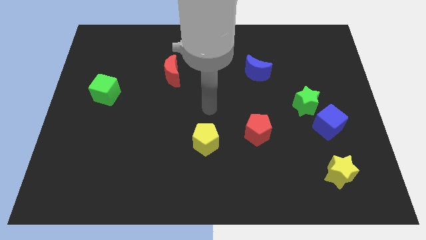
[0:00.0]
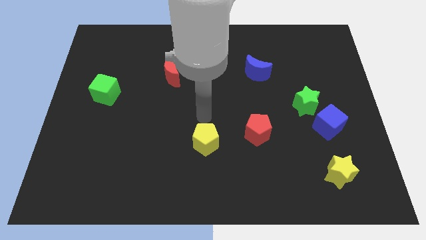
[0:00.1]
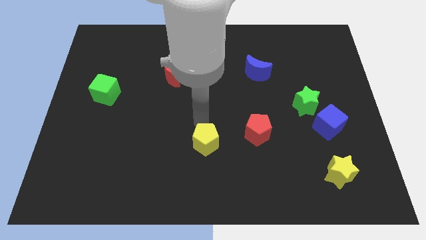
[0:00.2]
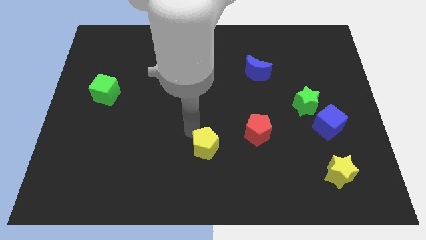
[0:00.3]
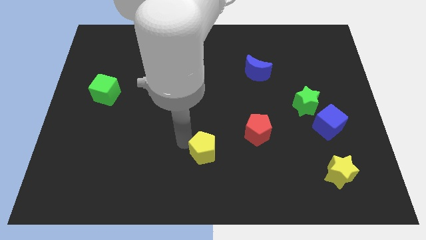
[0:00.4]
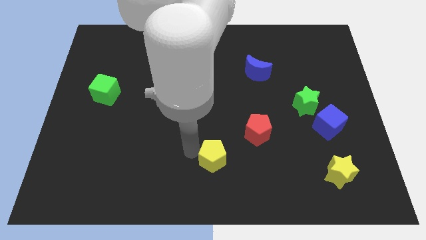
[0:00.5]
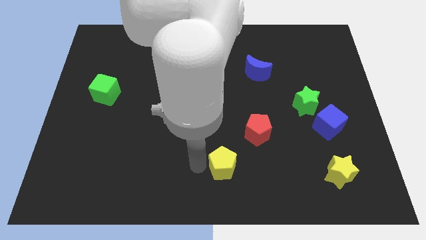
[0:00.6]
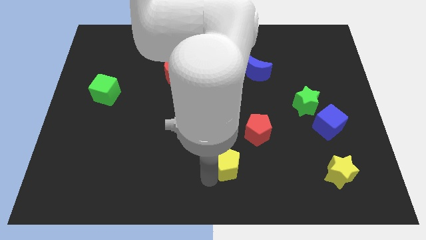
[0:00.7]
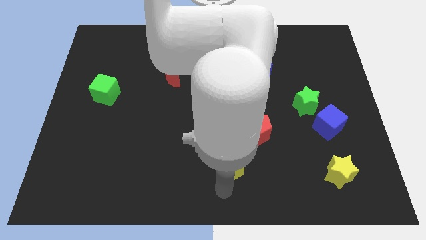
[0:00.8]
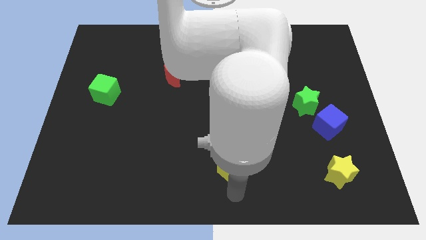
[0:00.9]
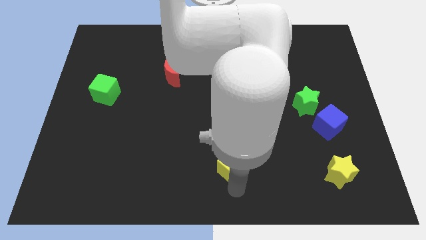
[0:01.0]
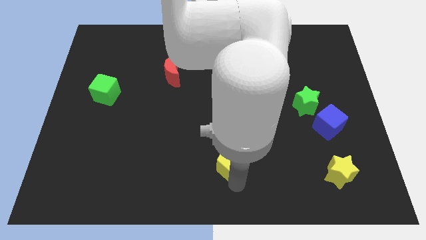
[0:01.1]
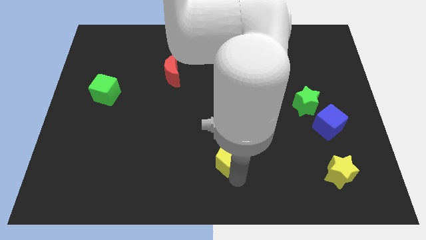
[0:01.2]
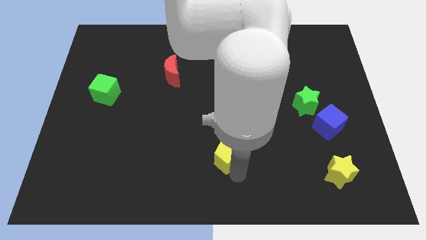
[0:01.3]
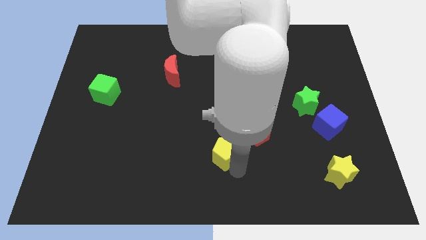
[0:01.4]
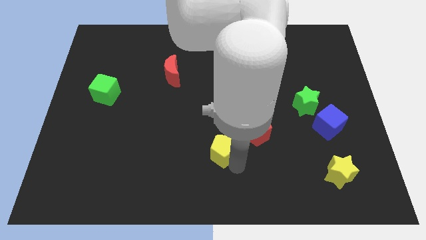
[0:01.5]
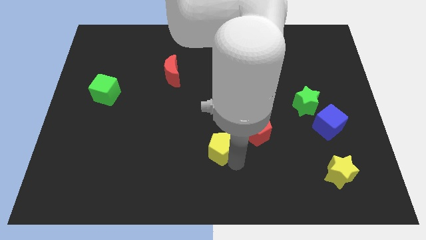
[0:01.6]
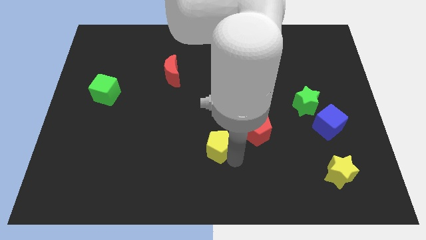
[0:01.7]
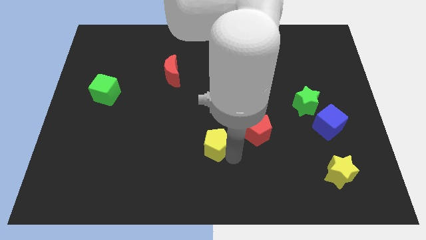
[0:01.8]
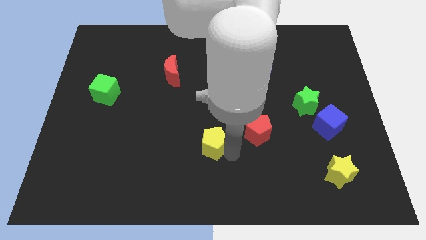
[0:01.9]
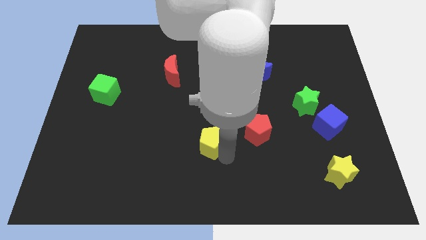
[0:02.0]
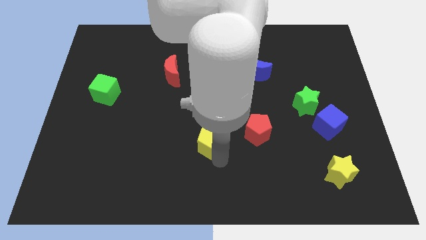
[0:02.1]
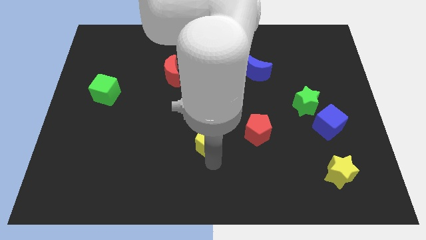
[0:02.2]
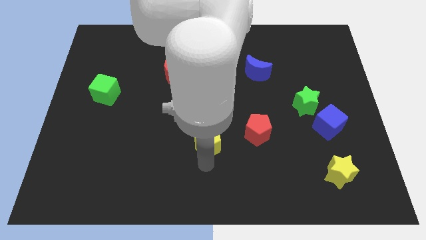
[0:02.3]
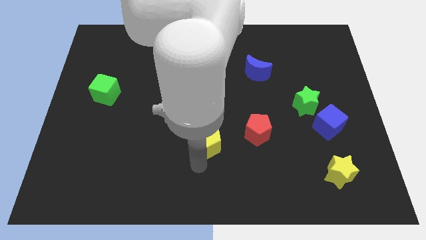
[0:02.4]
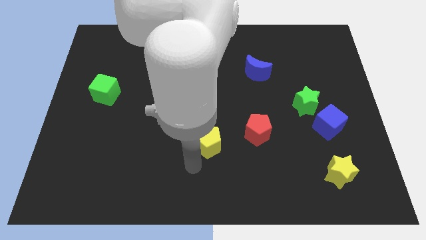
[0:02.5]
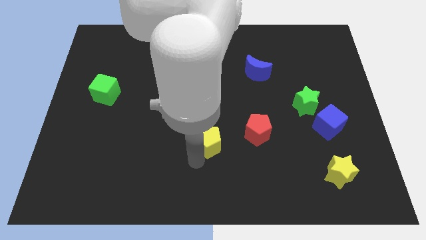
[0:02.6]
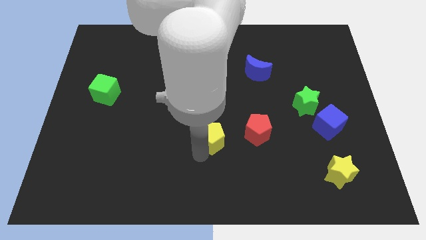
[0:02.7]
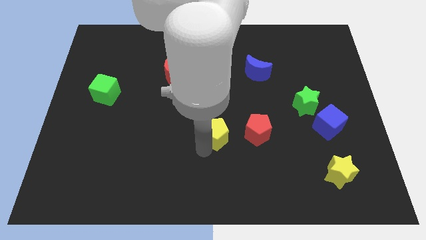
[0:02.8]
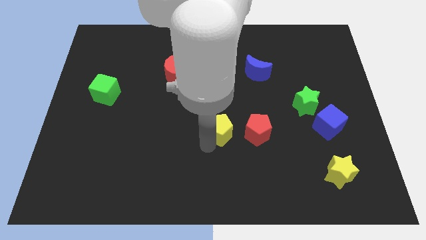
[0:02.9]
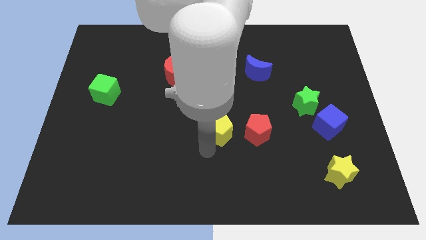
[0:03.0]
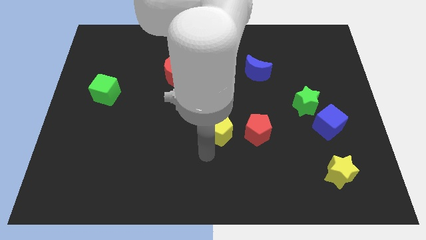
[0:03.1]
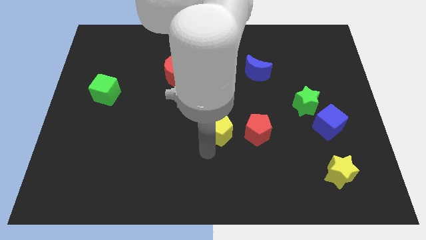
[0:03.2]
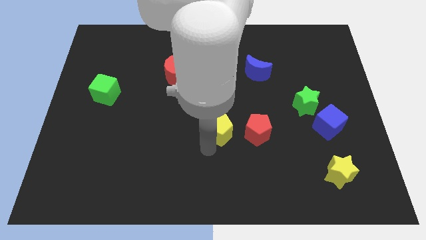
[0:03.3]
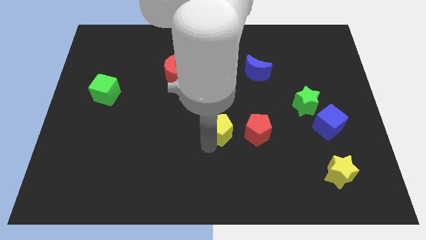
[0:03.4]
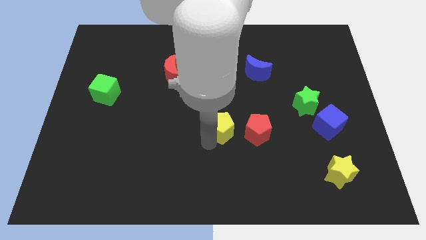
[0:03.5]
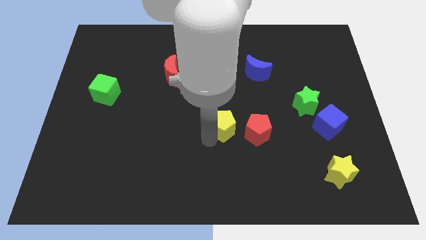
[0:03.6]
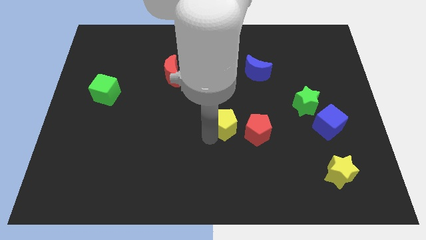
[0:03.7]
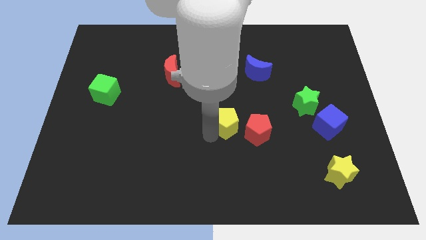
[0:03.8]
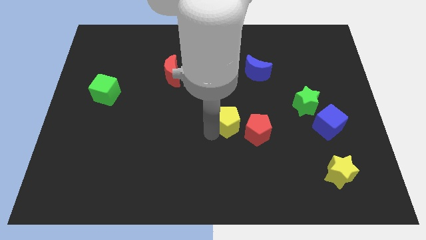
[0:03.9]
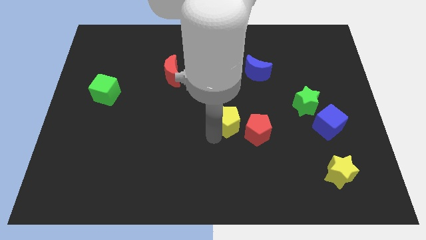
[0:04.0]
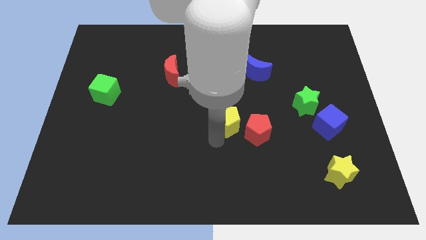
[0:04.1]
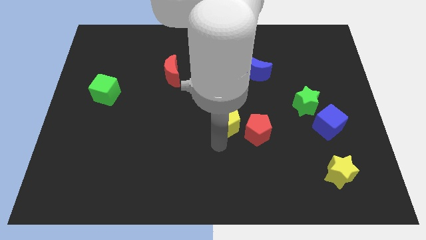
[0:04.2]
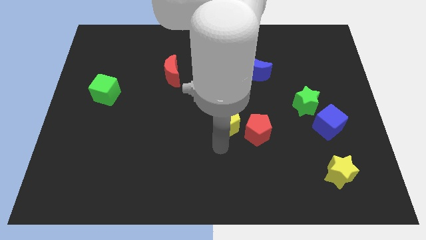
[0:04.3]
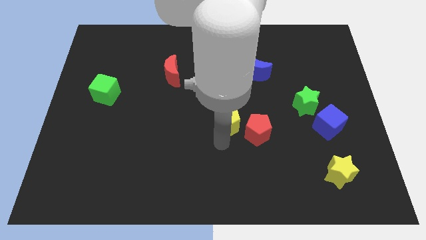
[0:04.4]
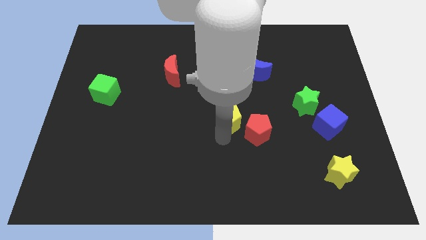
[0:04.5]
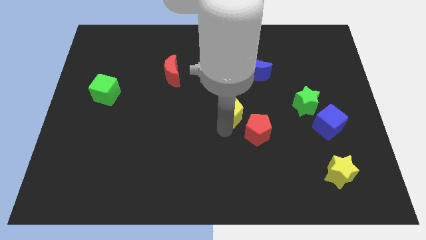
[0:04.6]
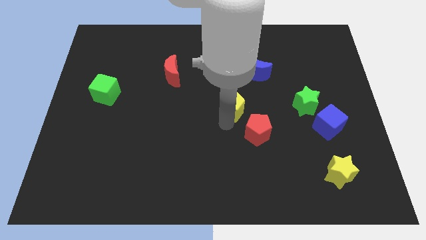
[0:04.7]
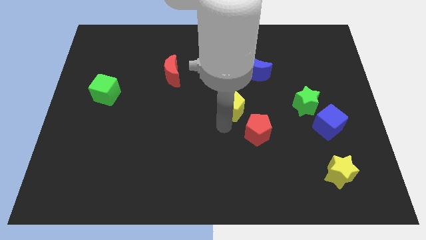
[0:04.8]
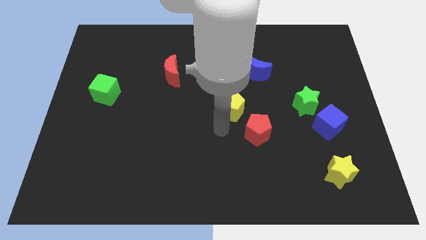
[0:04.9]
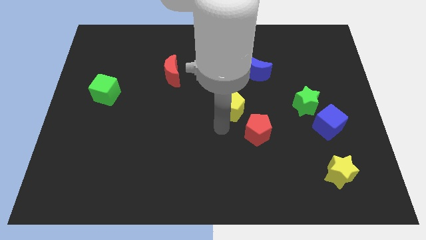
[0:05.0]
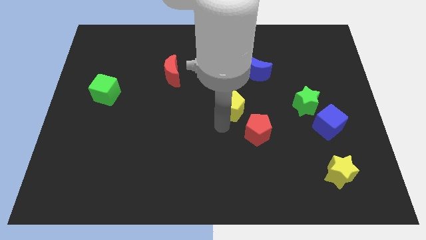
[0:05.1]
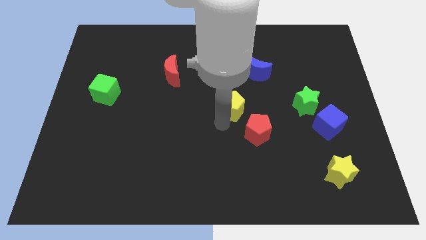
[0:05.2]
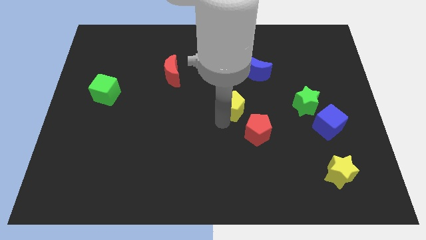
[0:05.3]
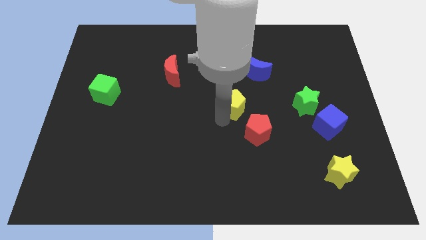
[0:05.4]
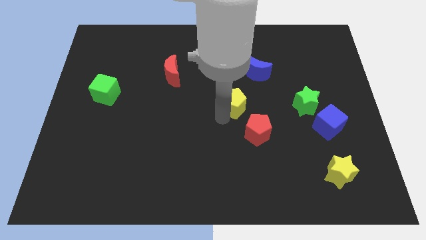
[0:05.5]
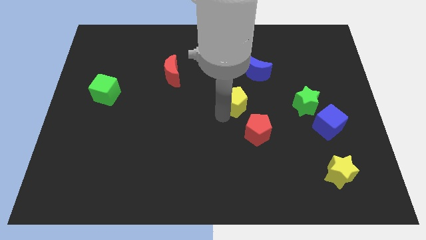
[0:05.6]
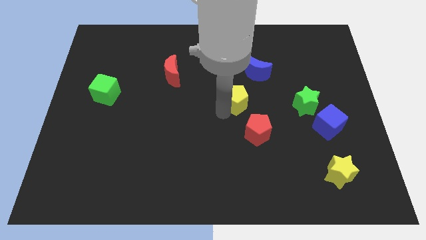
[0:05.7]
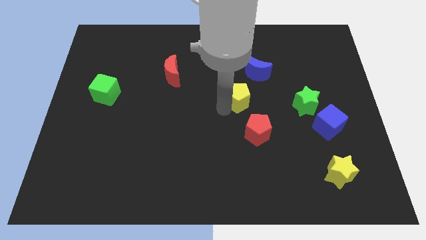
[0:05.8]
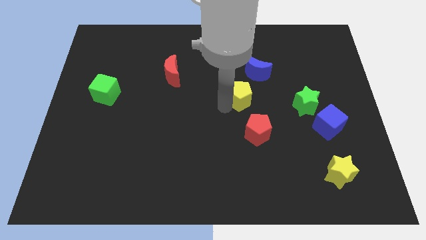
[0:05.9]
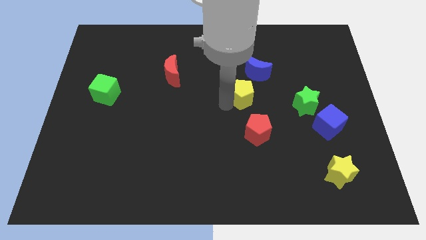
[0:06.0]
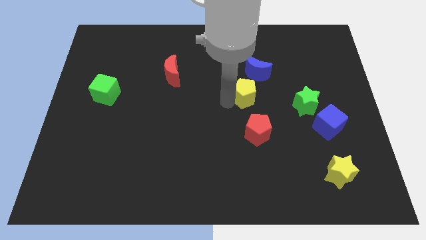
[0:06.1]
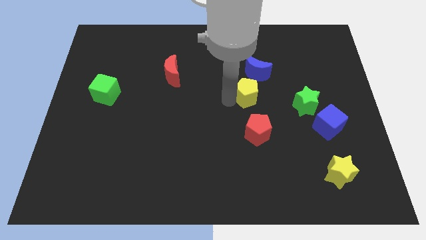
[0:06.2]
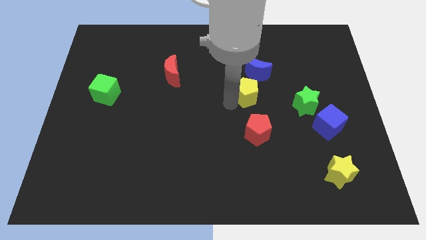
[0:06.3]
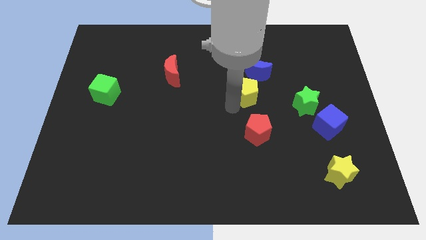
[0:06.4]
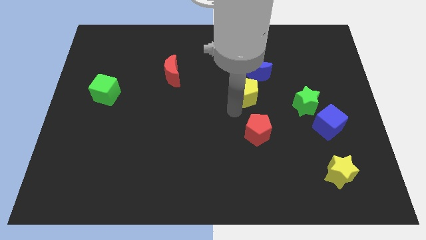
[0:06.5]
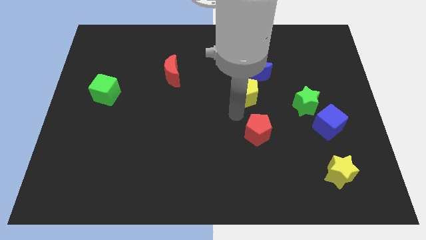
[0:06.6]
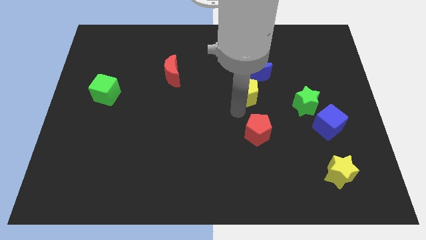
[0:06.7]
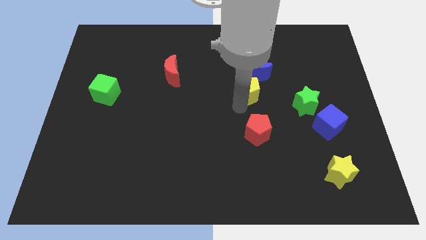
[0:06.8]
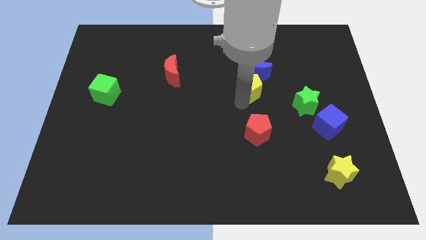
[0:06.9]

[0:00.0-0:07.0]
put the yellow pentagon to the blue moon

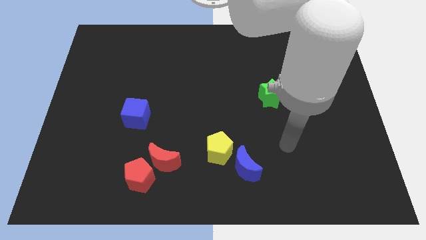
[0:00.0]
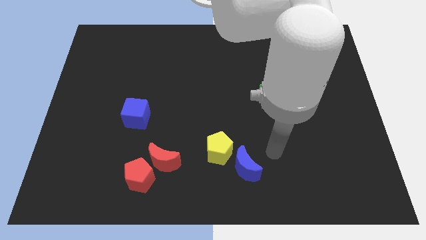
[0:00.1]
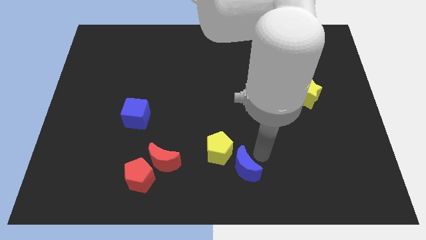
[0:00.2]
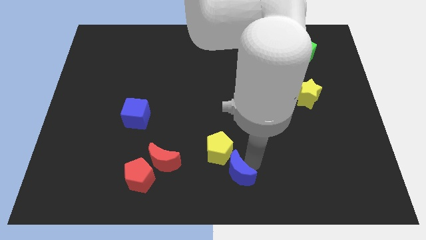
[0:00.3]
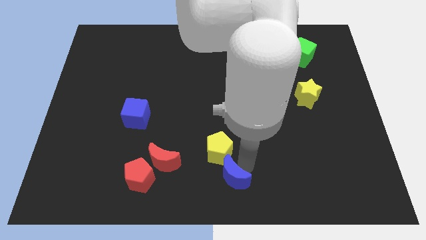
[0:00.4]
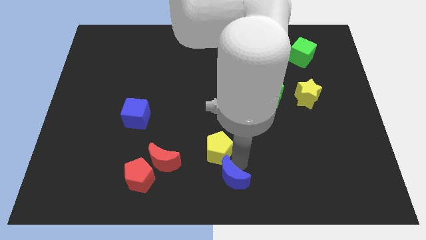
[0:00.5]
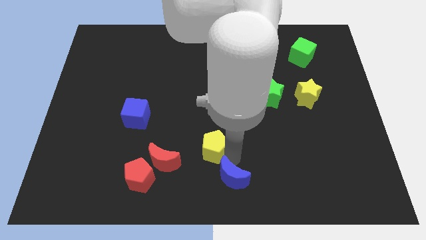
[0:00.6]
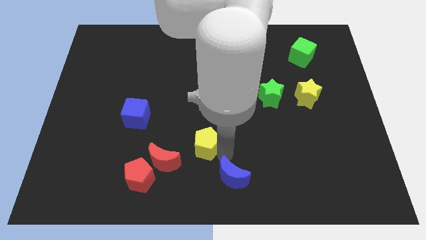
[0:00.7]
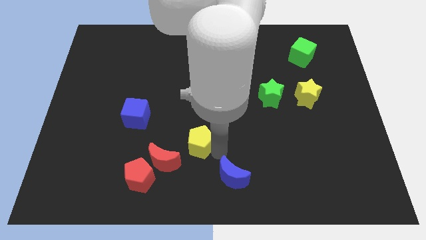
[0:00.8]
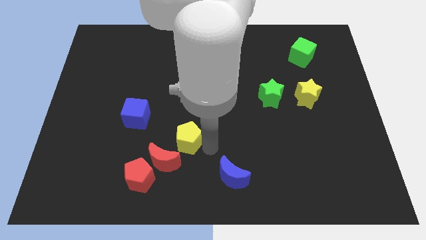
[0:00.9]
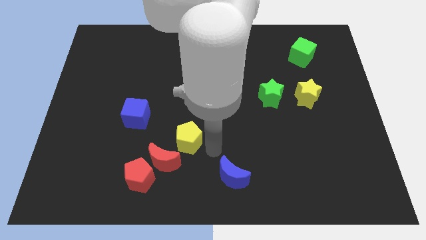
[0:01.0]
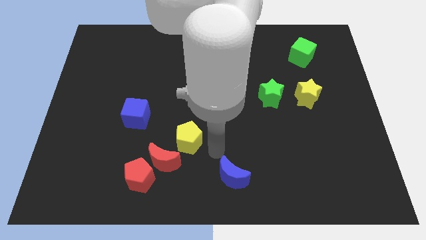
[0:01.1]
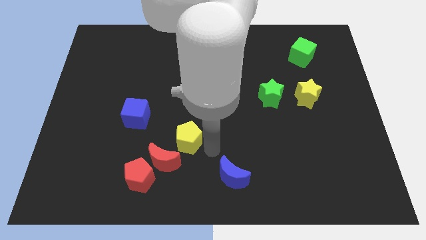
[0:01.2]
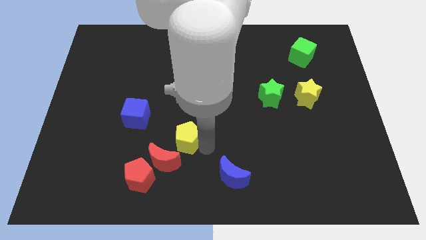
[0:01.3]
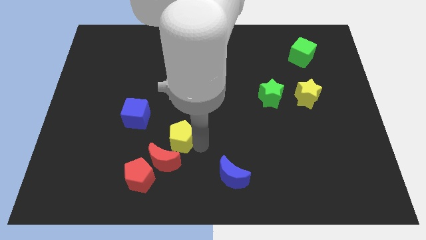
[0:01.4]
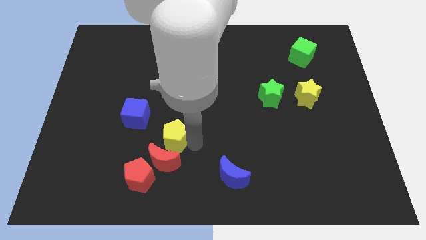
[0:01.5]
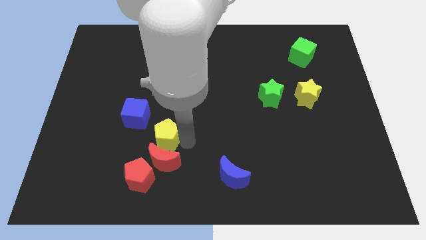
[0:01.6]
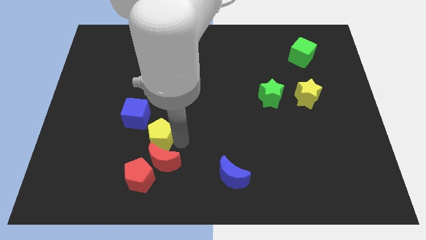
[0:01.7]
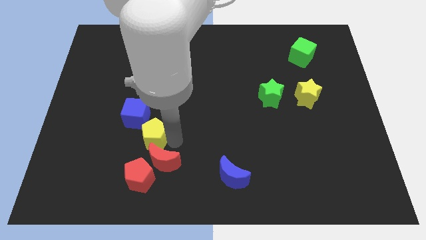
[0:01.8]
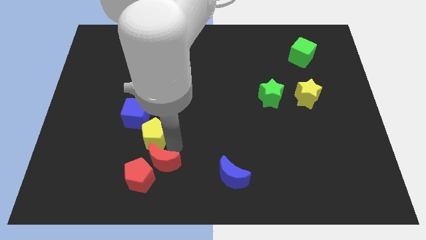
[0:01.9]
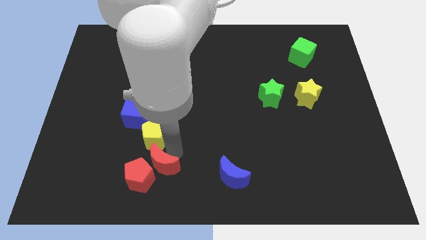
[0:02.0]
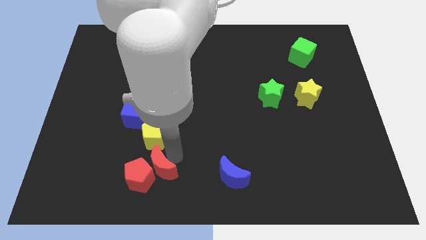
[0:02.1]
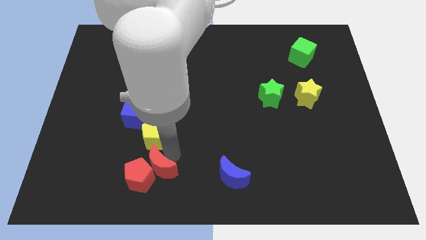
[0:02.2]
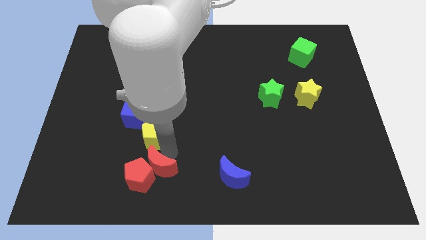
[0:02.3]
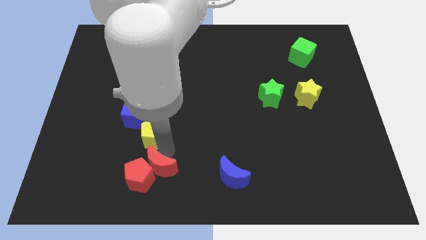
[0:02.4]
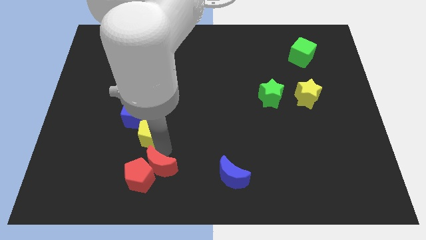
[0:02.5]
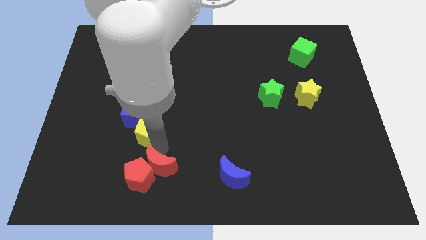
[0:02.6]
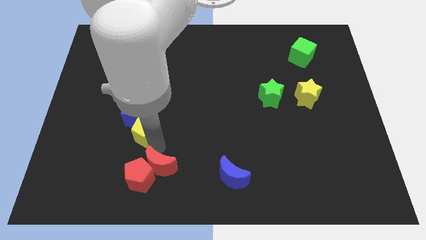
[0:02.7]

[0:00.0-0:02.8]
slide the yellow pentagon to the blue cube
